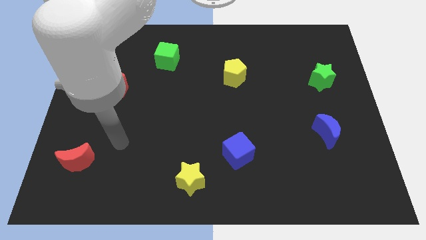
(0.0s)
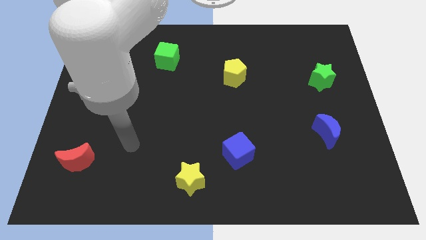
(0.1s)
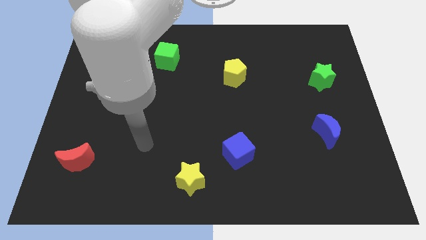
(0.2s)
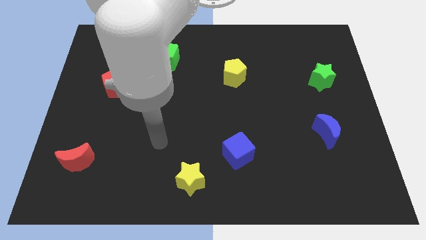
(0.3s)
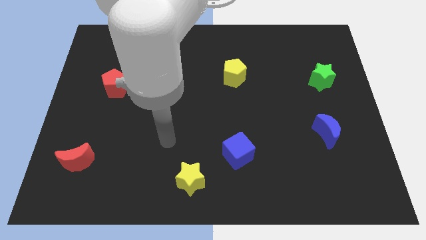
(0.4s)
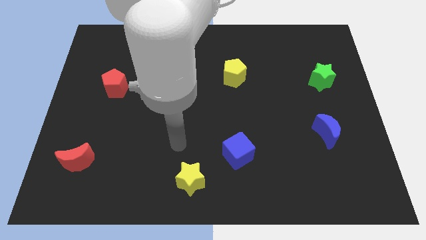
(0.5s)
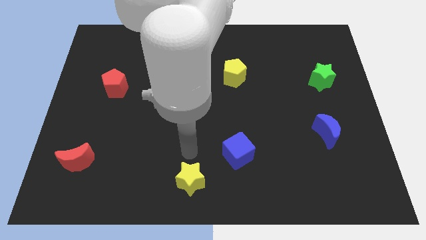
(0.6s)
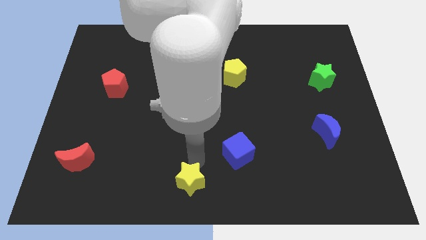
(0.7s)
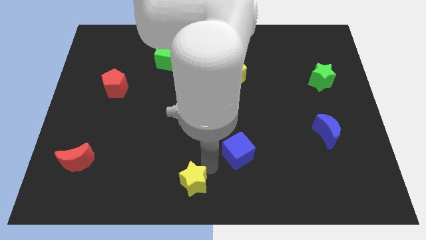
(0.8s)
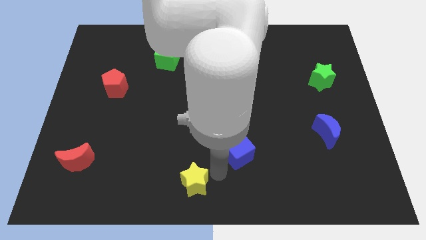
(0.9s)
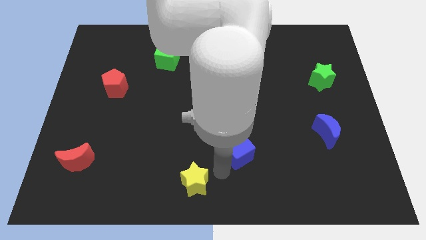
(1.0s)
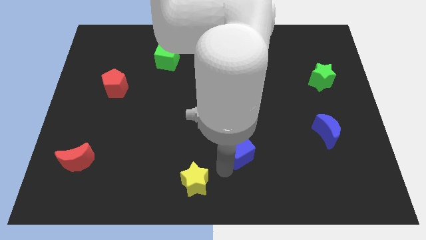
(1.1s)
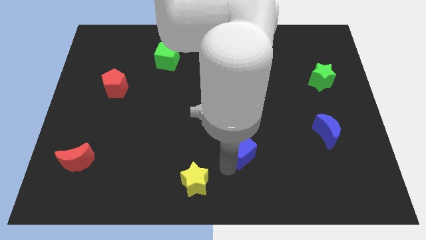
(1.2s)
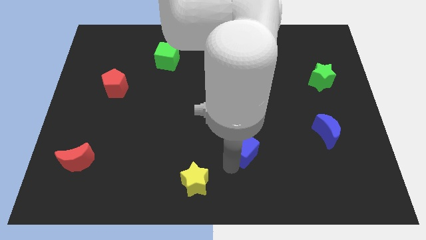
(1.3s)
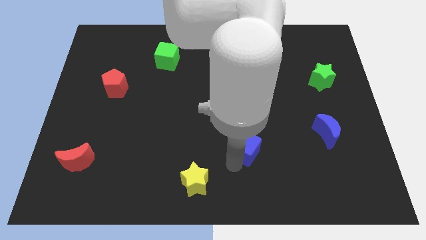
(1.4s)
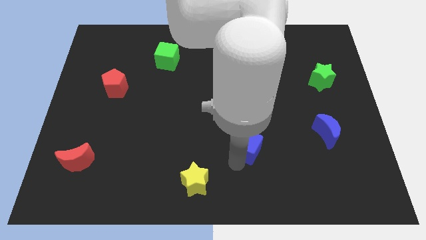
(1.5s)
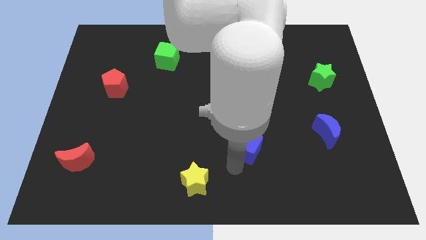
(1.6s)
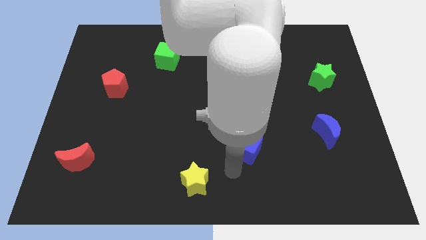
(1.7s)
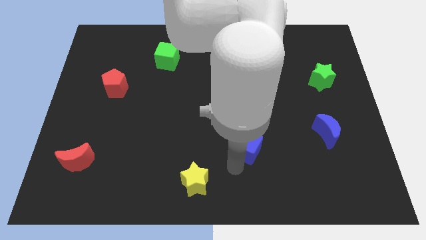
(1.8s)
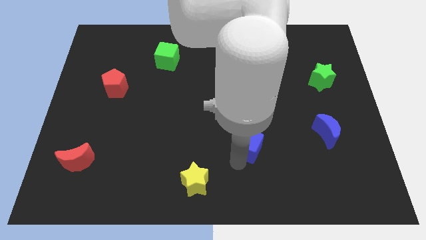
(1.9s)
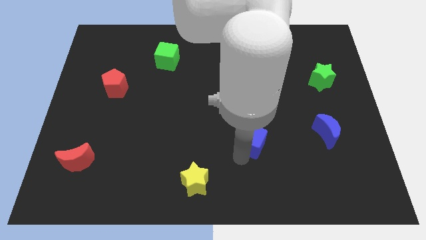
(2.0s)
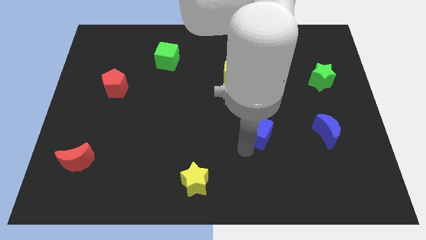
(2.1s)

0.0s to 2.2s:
move the blue cube somewhat up and to the right

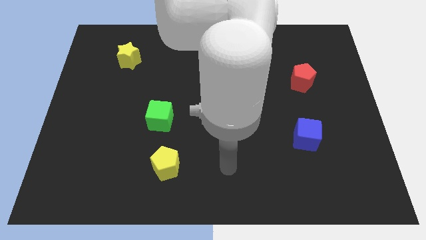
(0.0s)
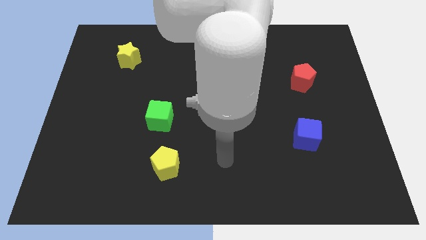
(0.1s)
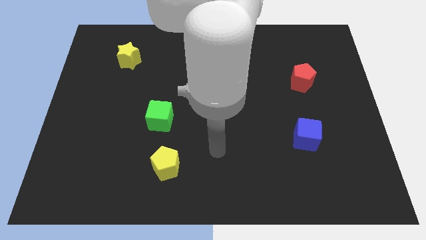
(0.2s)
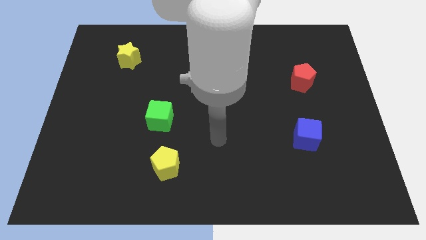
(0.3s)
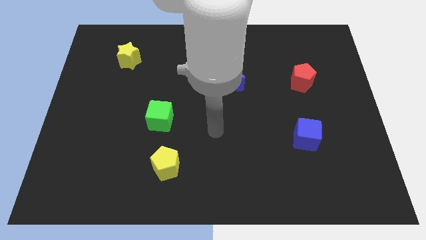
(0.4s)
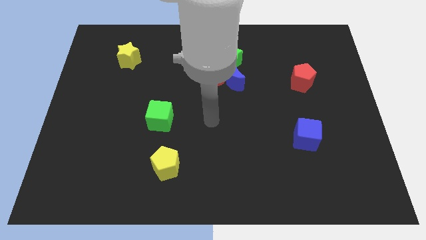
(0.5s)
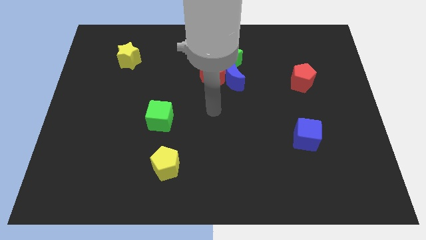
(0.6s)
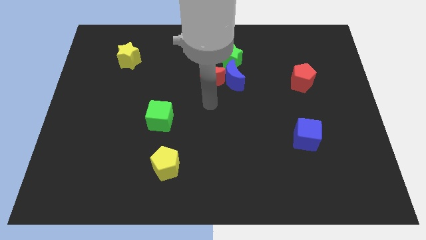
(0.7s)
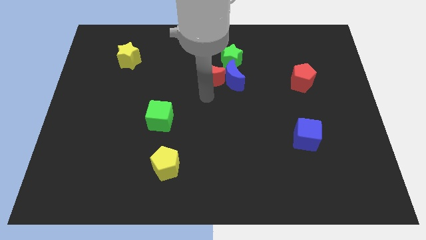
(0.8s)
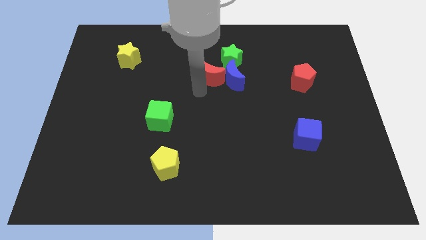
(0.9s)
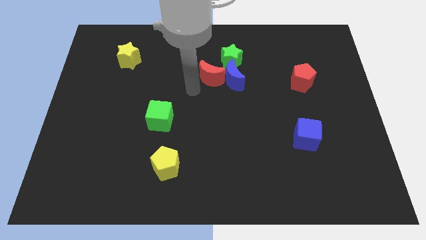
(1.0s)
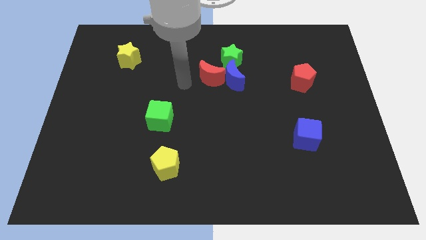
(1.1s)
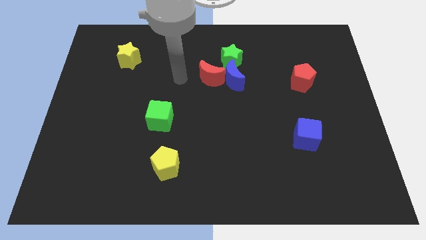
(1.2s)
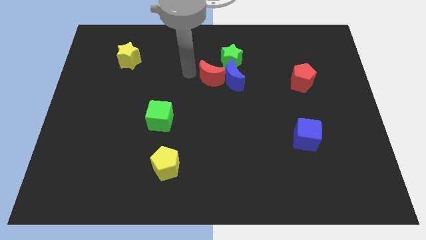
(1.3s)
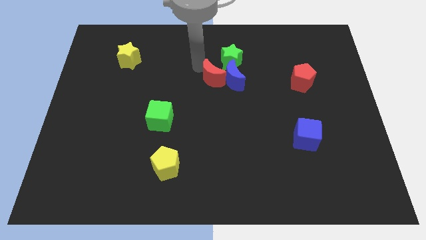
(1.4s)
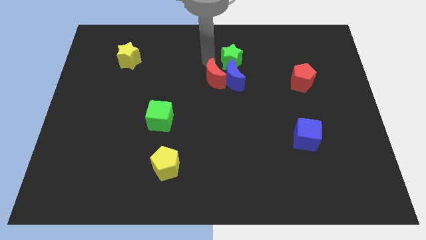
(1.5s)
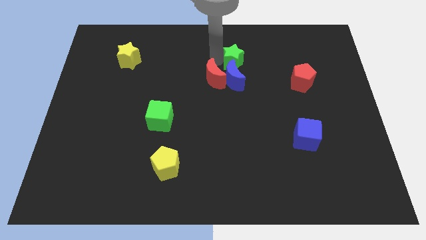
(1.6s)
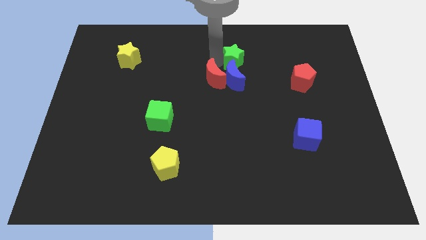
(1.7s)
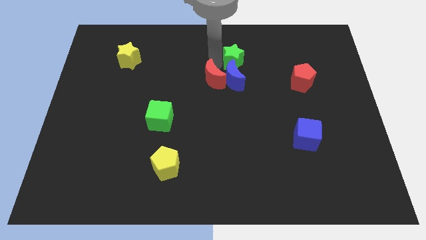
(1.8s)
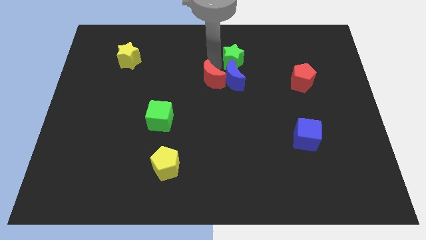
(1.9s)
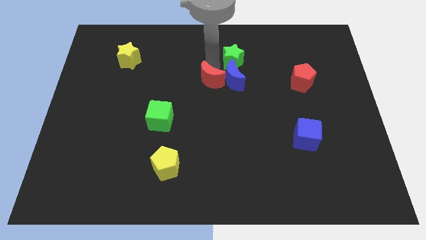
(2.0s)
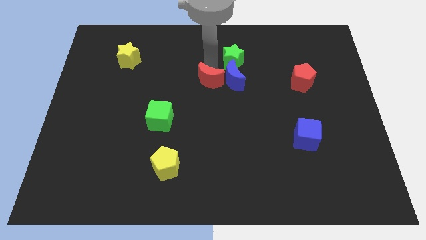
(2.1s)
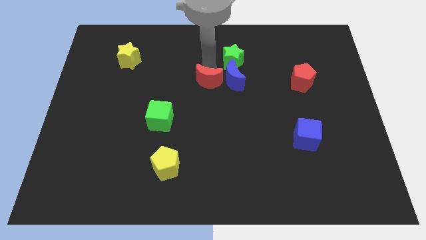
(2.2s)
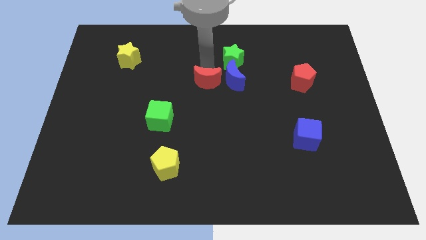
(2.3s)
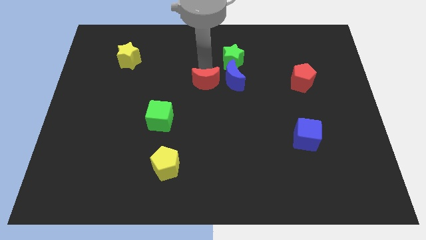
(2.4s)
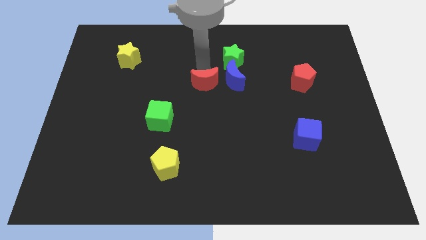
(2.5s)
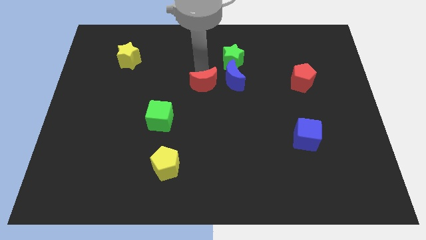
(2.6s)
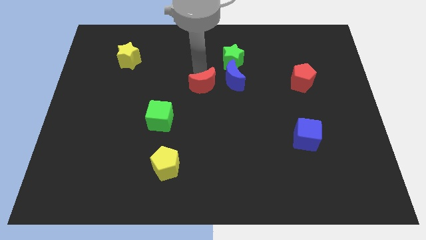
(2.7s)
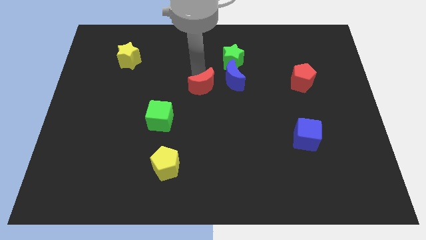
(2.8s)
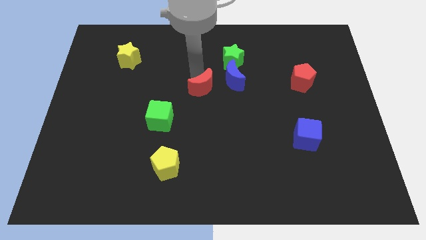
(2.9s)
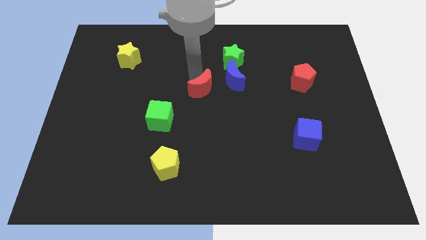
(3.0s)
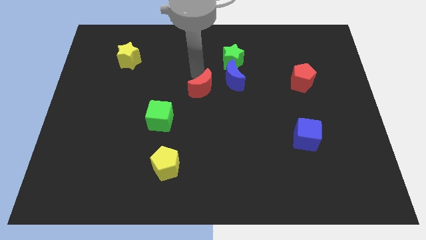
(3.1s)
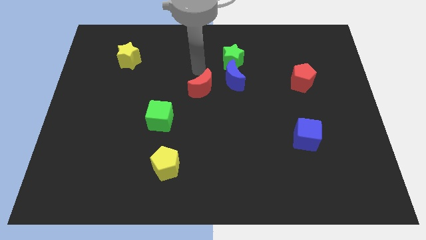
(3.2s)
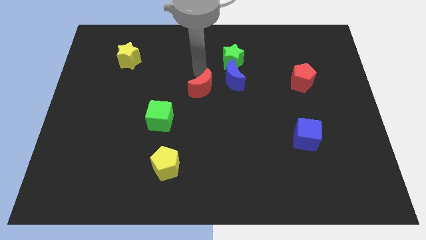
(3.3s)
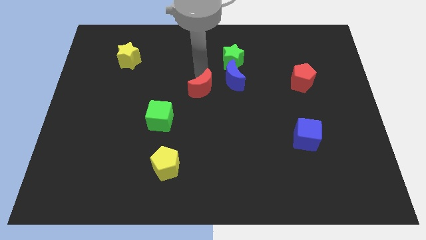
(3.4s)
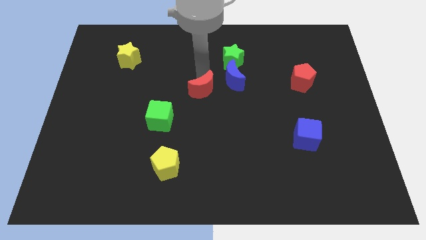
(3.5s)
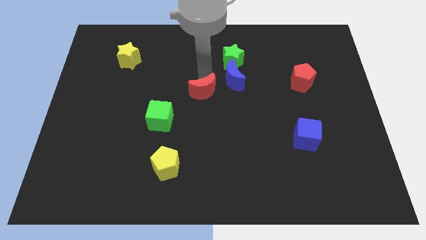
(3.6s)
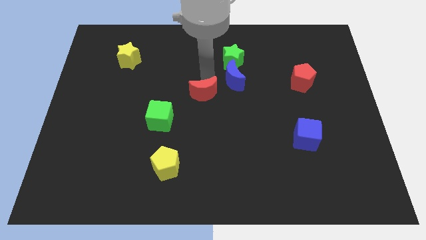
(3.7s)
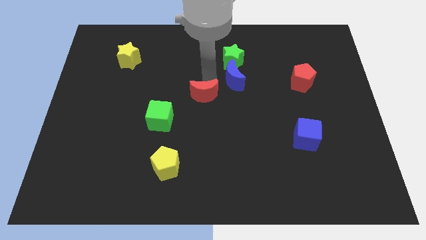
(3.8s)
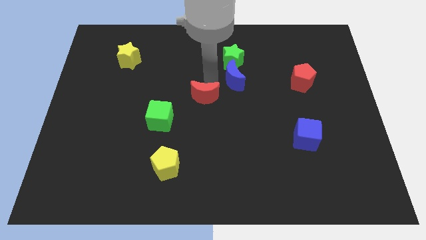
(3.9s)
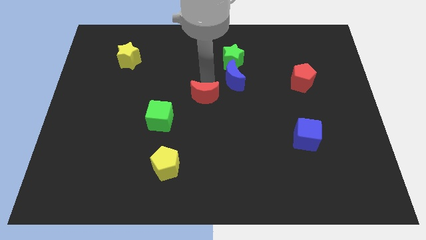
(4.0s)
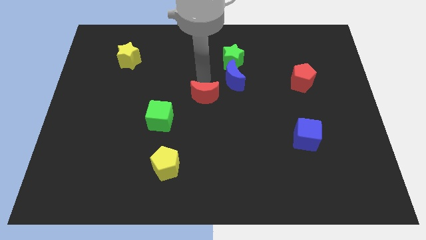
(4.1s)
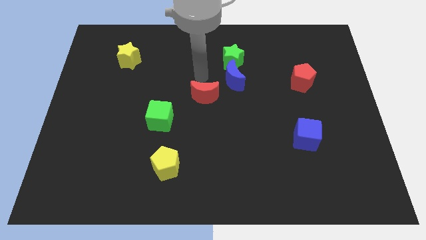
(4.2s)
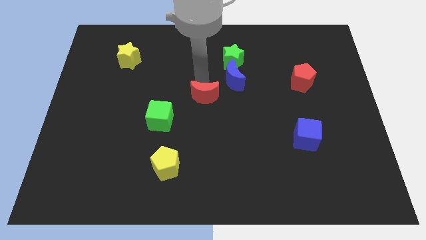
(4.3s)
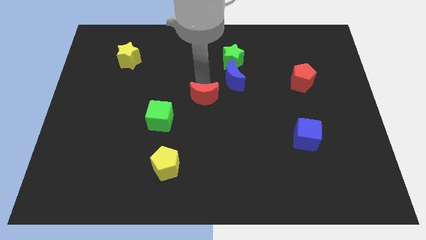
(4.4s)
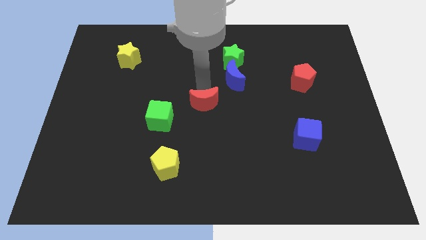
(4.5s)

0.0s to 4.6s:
push the red moon a little downwards

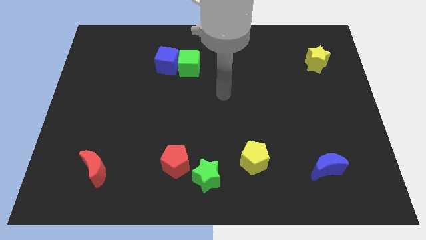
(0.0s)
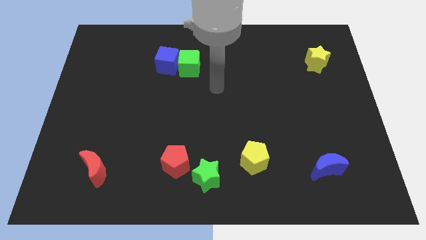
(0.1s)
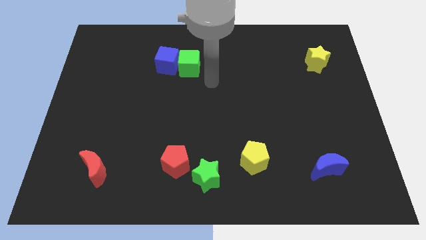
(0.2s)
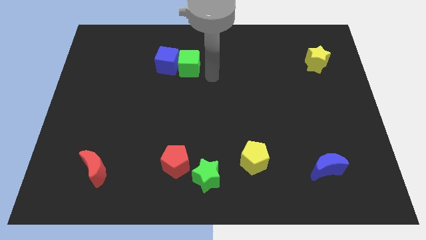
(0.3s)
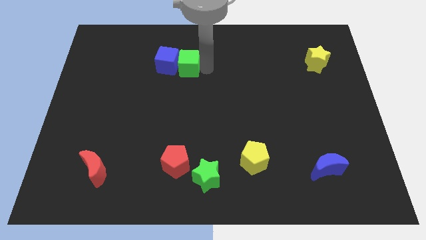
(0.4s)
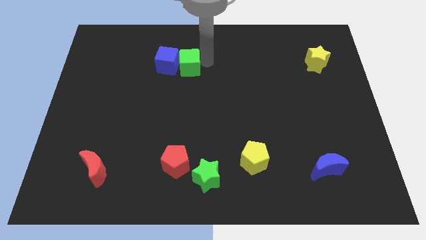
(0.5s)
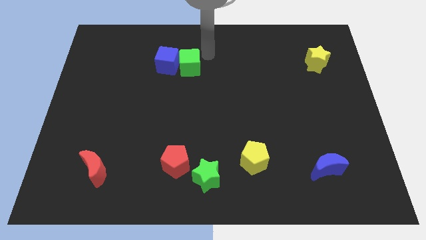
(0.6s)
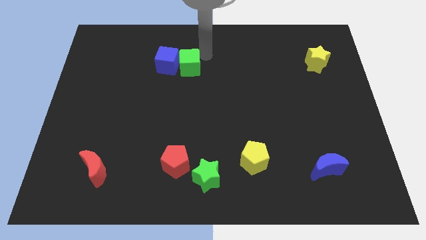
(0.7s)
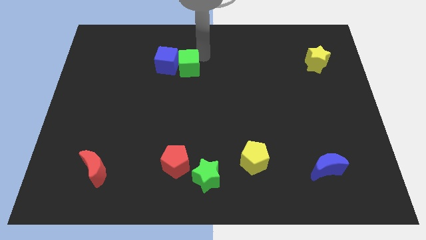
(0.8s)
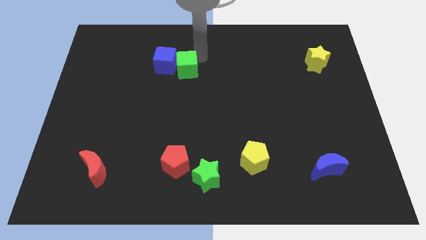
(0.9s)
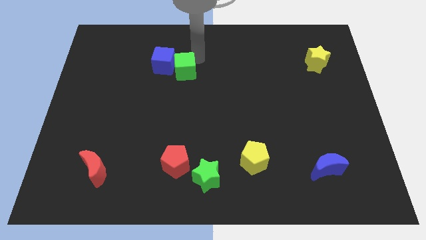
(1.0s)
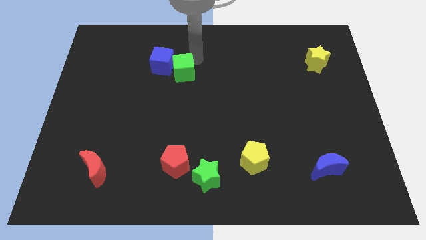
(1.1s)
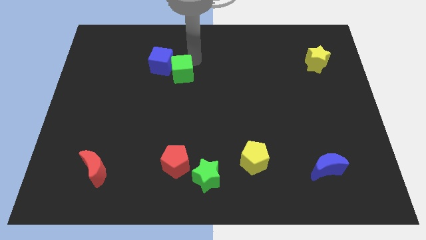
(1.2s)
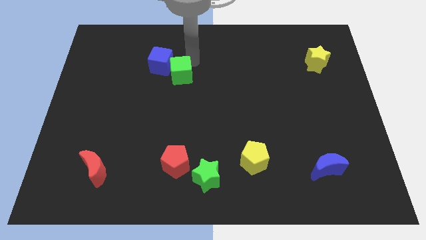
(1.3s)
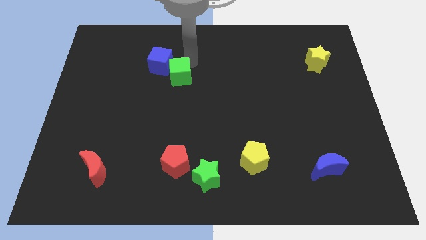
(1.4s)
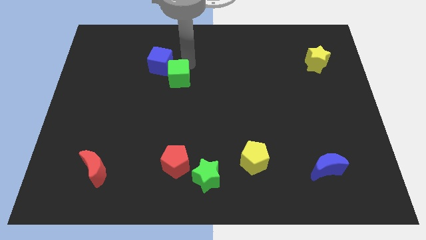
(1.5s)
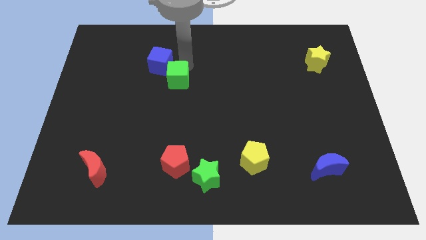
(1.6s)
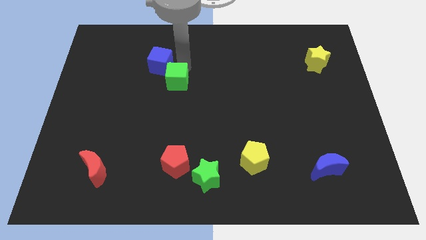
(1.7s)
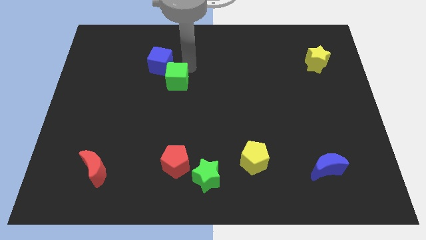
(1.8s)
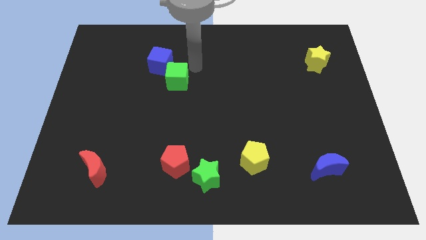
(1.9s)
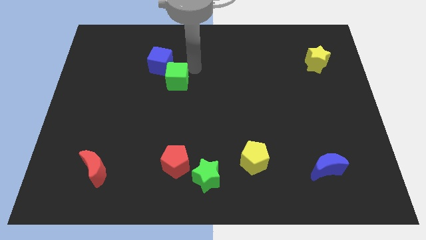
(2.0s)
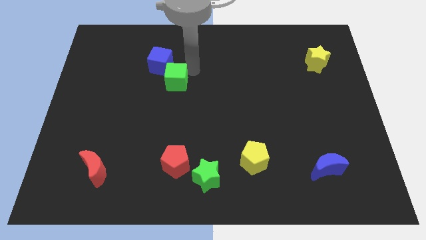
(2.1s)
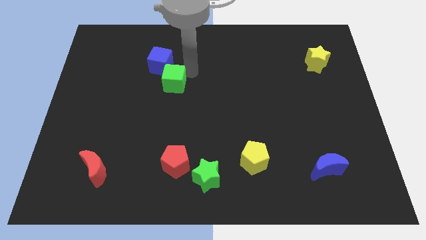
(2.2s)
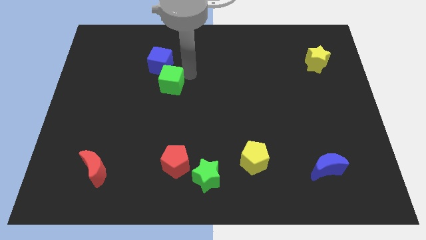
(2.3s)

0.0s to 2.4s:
push the green cube down and left a little bit
